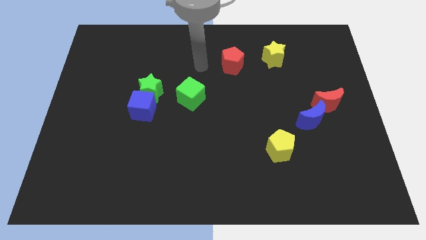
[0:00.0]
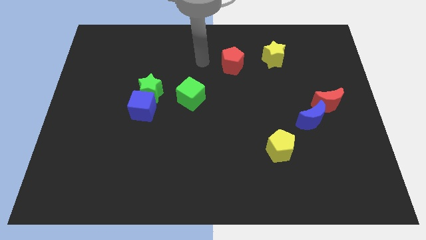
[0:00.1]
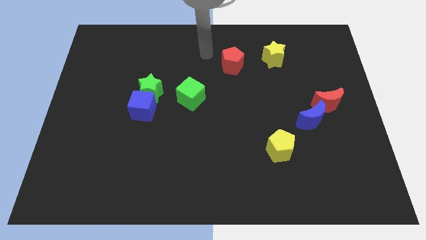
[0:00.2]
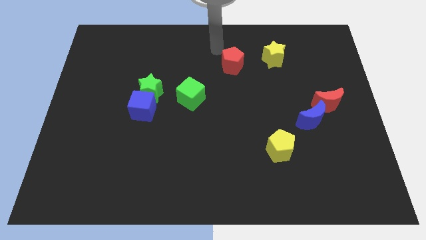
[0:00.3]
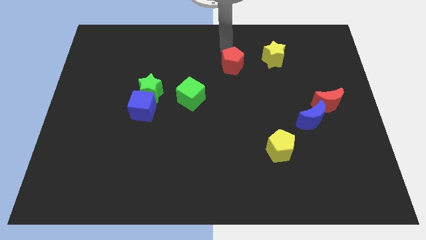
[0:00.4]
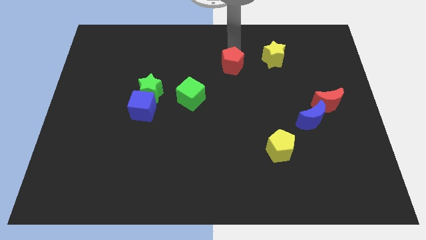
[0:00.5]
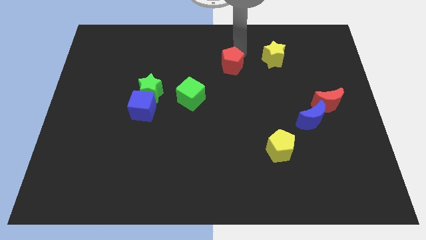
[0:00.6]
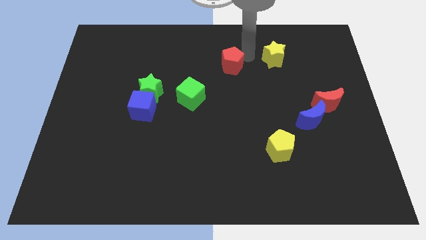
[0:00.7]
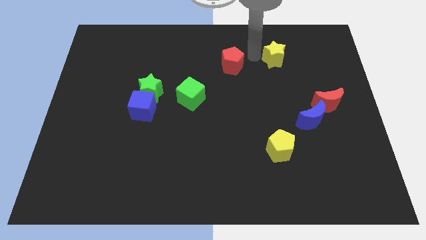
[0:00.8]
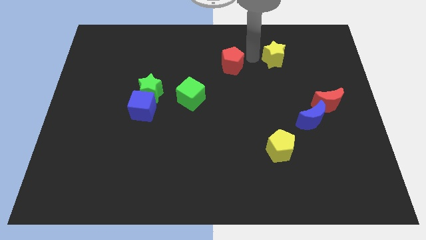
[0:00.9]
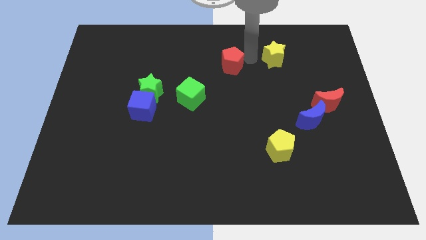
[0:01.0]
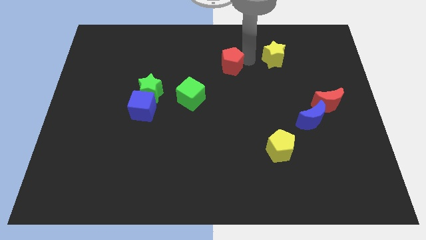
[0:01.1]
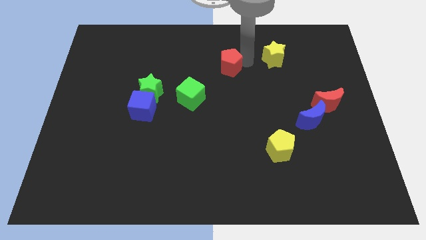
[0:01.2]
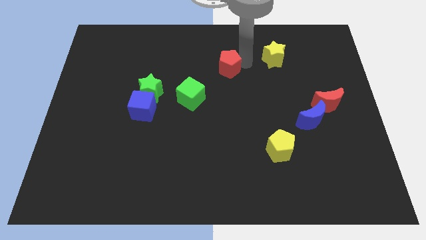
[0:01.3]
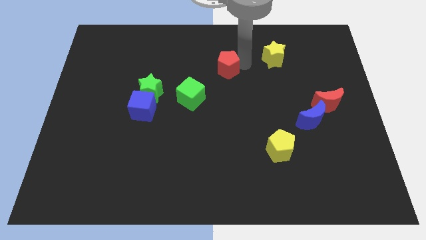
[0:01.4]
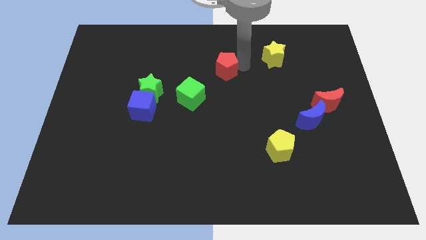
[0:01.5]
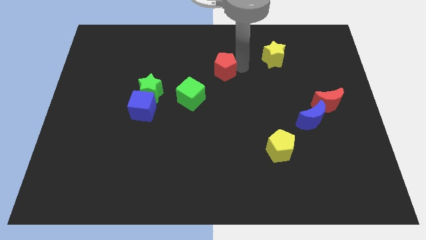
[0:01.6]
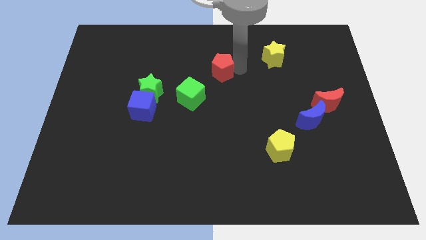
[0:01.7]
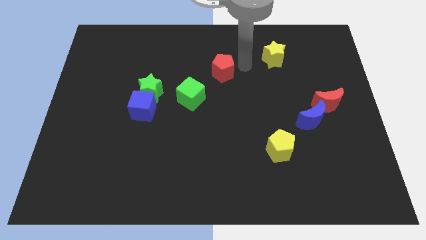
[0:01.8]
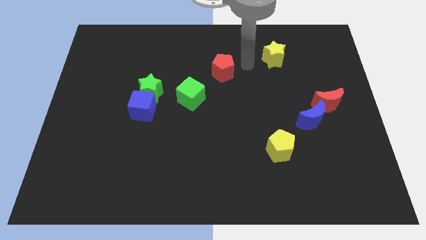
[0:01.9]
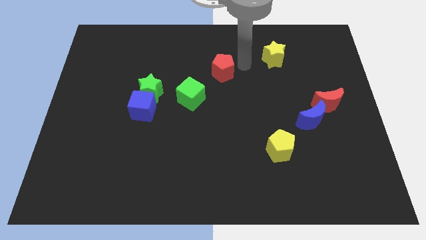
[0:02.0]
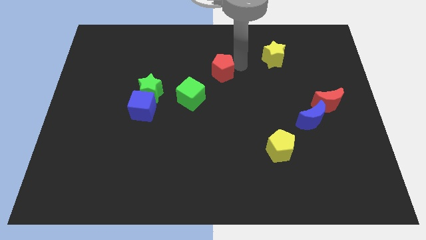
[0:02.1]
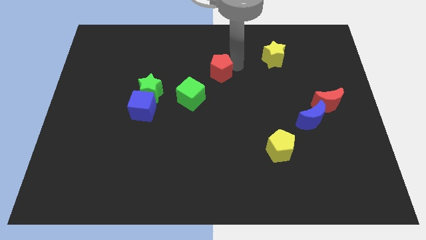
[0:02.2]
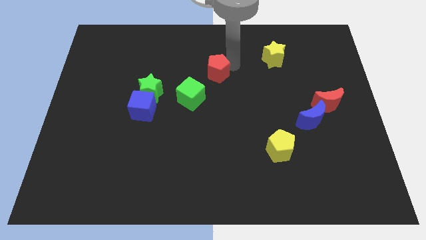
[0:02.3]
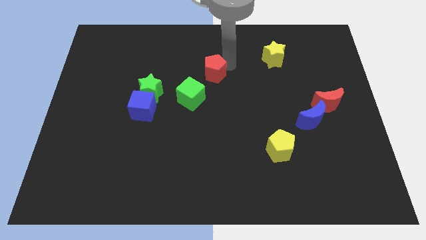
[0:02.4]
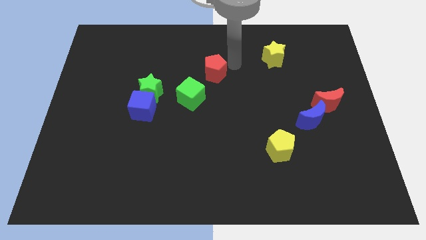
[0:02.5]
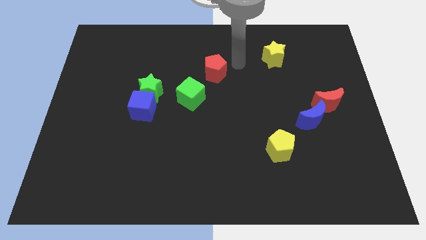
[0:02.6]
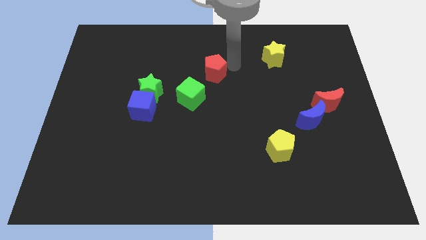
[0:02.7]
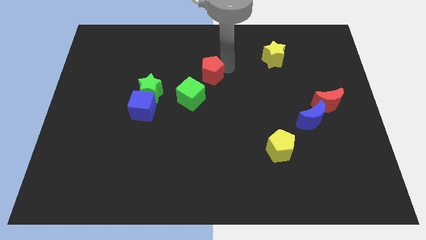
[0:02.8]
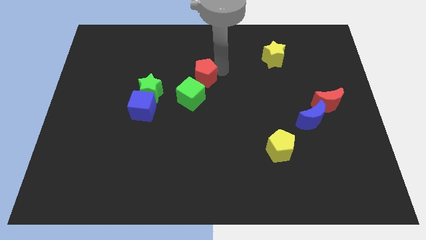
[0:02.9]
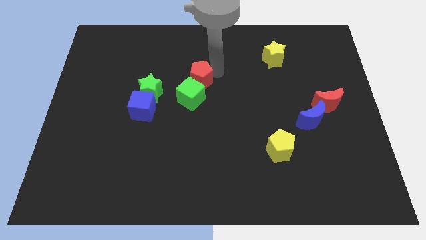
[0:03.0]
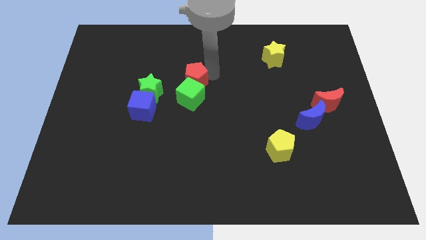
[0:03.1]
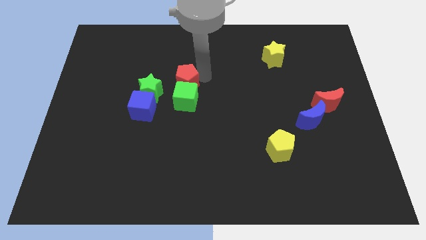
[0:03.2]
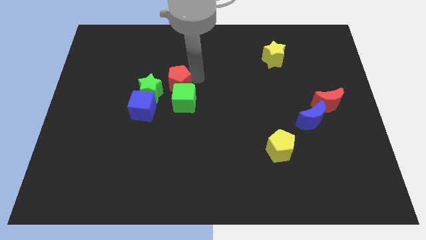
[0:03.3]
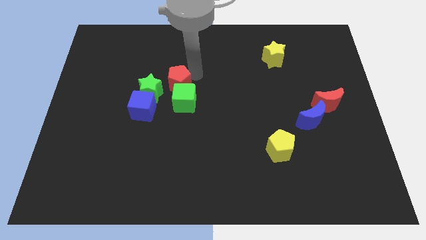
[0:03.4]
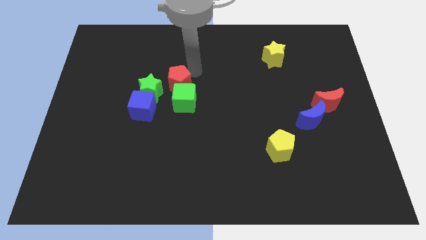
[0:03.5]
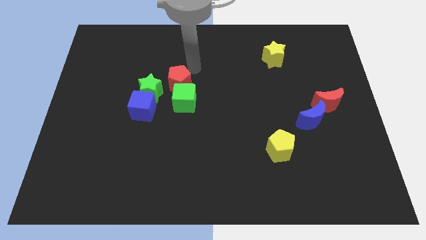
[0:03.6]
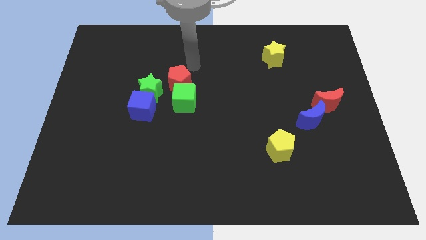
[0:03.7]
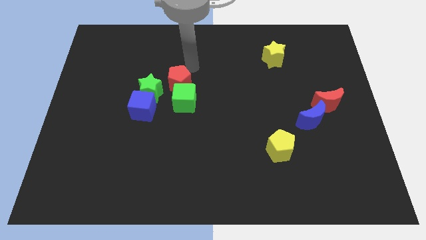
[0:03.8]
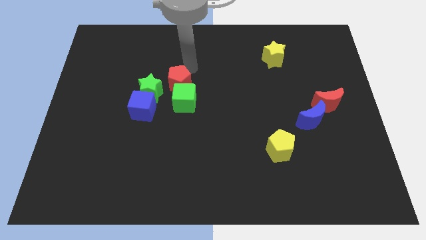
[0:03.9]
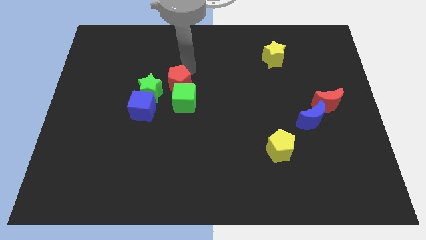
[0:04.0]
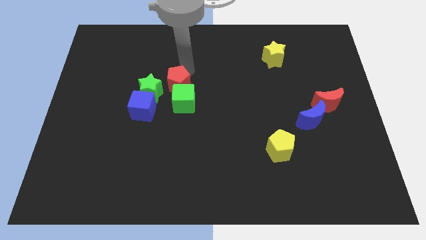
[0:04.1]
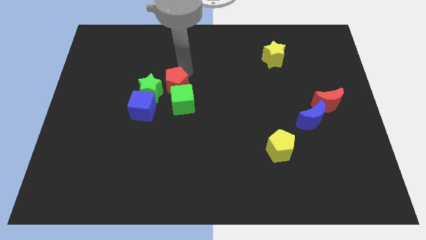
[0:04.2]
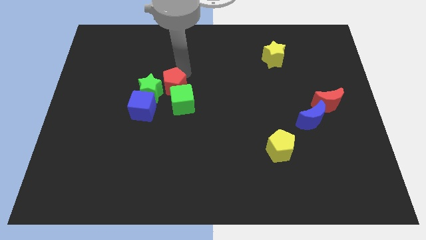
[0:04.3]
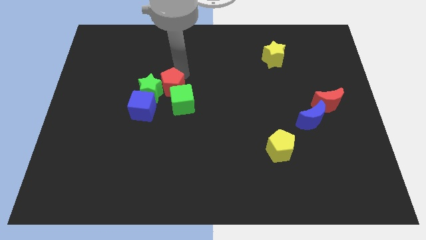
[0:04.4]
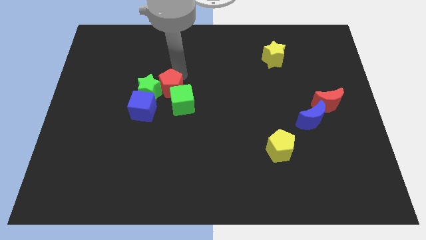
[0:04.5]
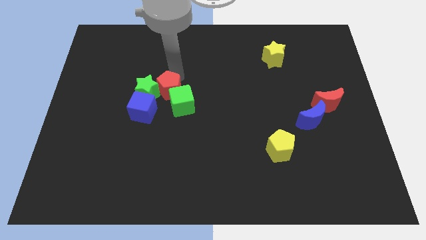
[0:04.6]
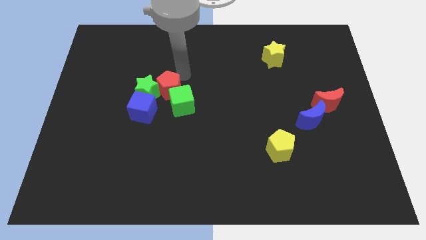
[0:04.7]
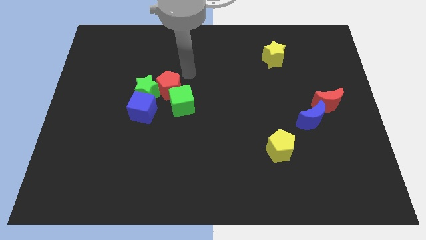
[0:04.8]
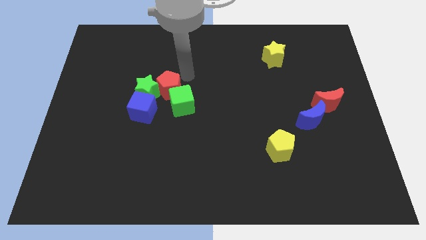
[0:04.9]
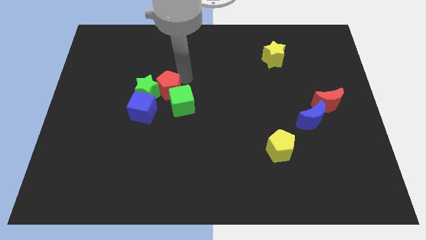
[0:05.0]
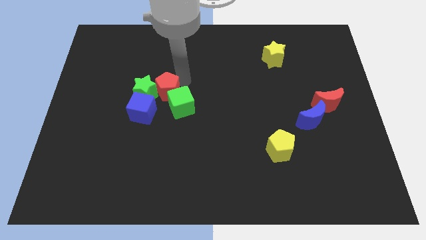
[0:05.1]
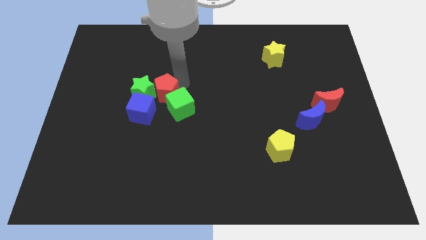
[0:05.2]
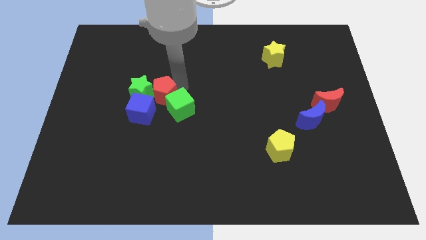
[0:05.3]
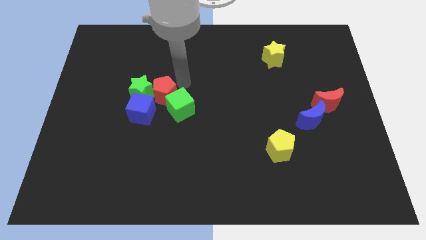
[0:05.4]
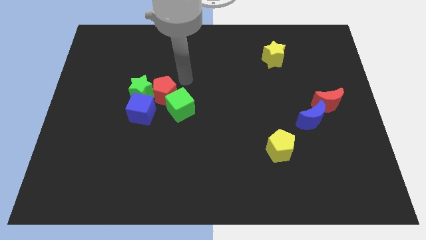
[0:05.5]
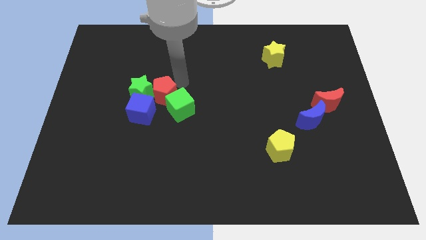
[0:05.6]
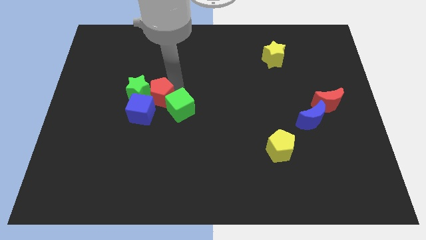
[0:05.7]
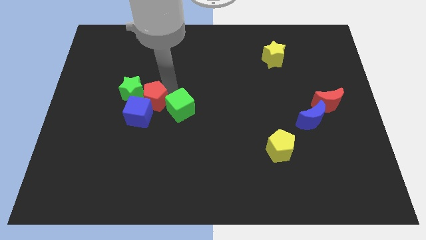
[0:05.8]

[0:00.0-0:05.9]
put the red pentagon close to the blue cube

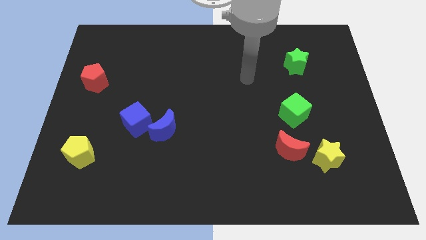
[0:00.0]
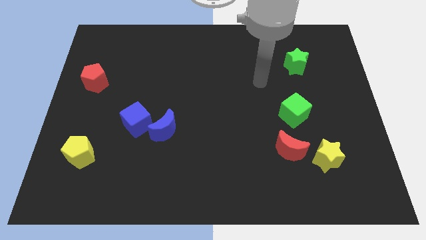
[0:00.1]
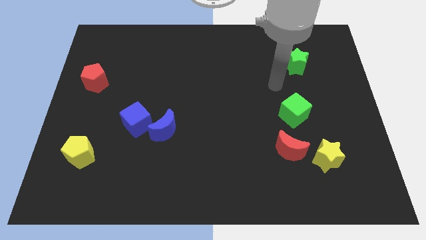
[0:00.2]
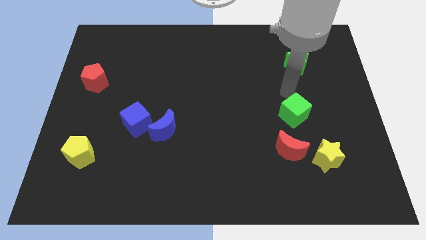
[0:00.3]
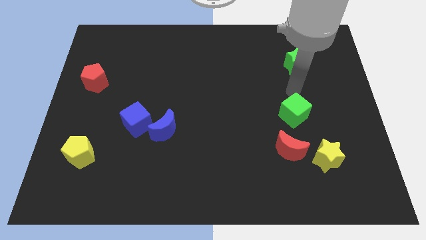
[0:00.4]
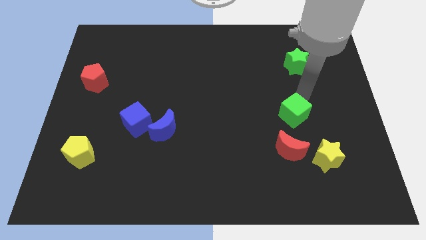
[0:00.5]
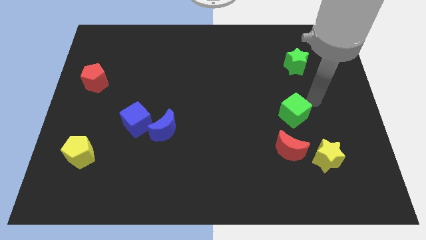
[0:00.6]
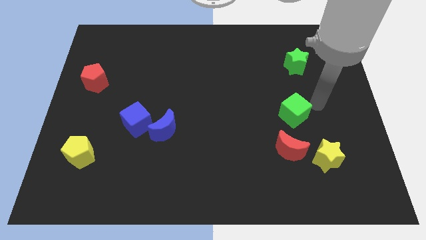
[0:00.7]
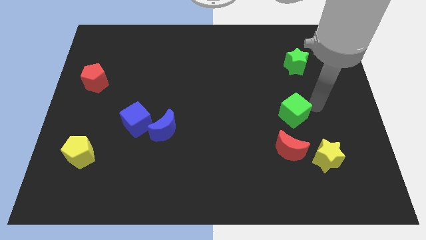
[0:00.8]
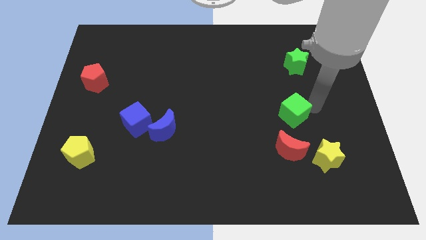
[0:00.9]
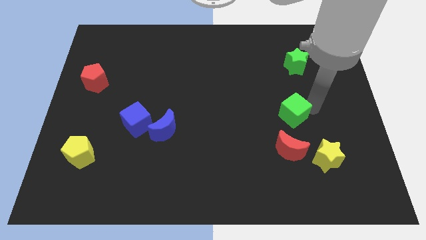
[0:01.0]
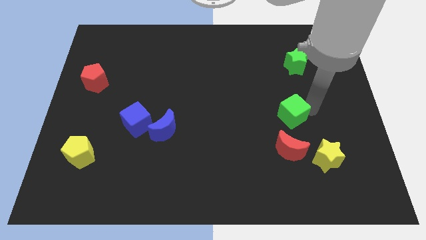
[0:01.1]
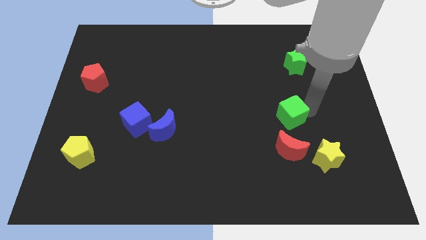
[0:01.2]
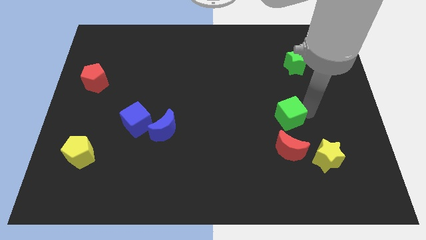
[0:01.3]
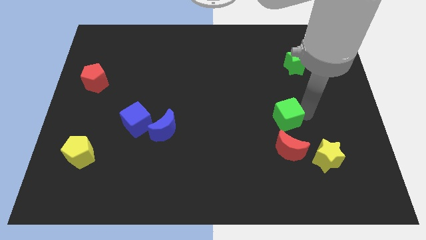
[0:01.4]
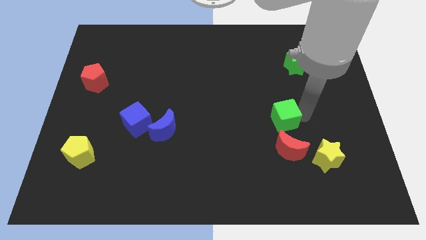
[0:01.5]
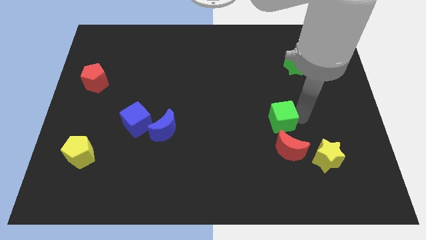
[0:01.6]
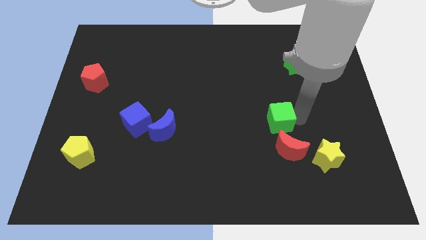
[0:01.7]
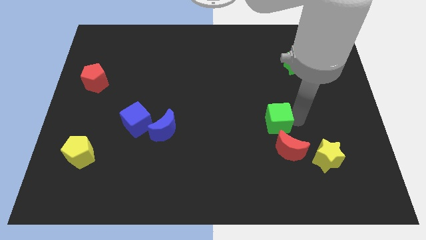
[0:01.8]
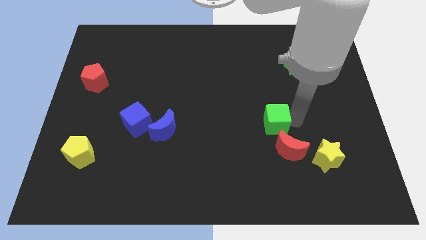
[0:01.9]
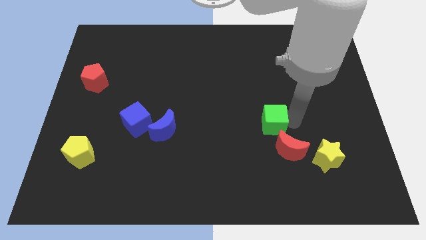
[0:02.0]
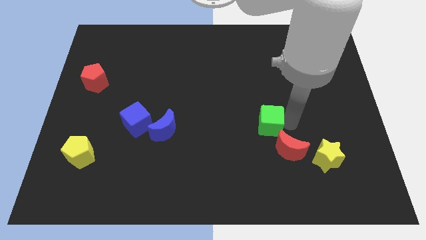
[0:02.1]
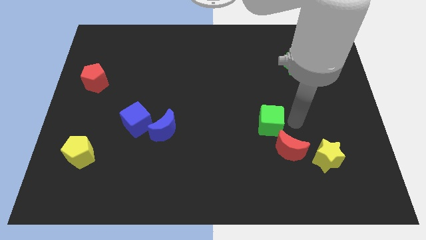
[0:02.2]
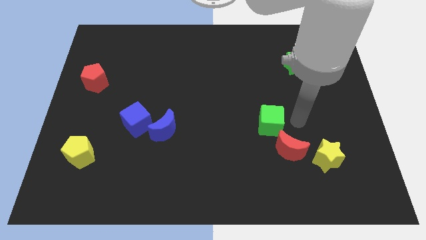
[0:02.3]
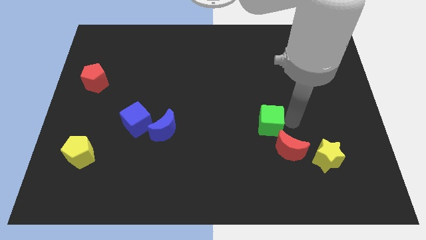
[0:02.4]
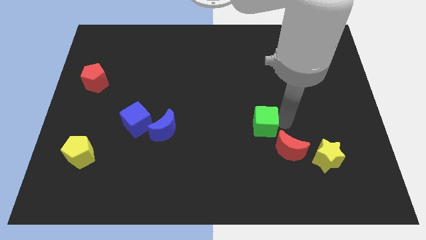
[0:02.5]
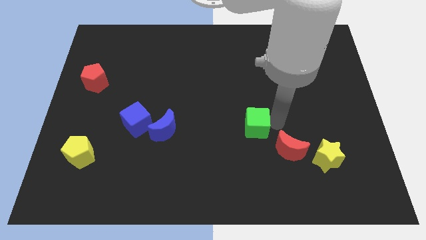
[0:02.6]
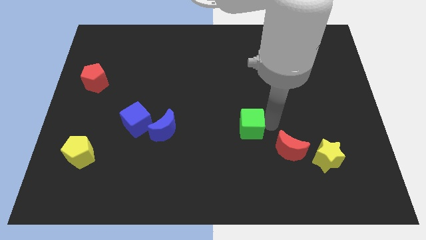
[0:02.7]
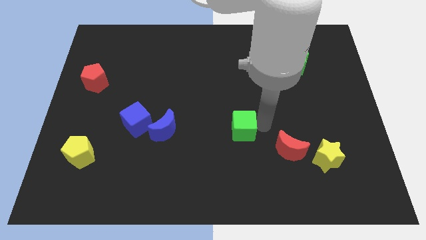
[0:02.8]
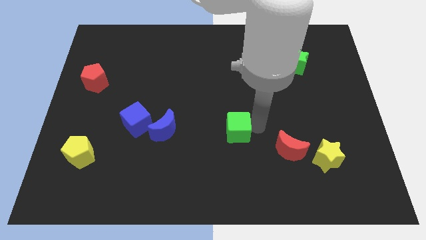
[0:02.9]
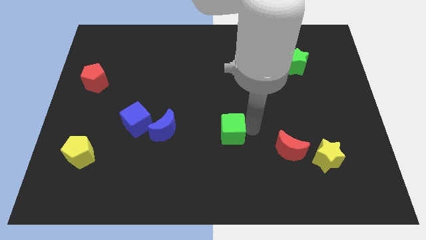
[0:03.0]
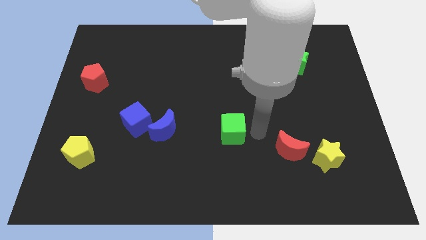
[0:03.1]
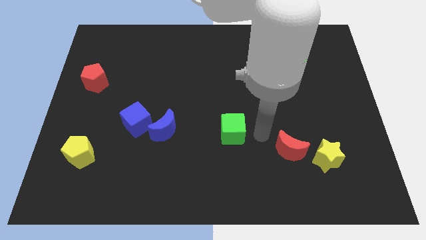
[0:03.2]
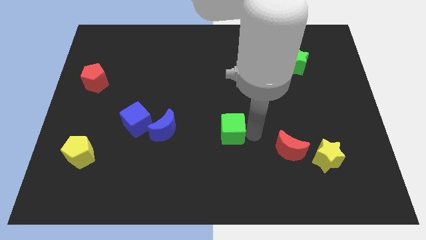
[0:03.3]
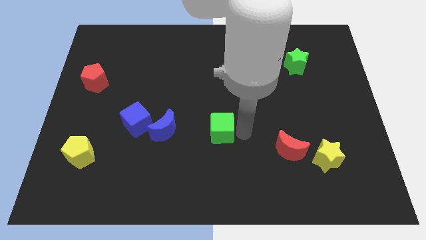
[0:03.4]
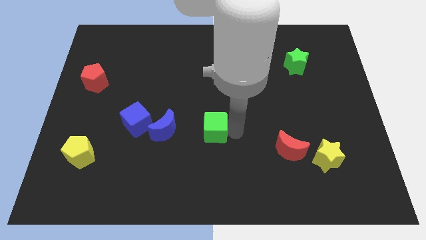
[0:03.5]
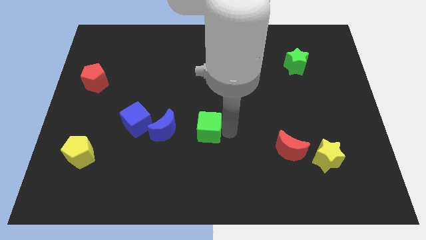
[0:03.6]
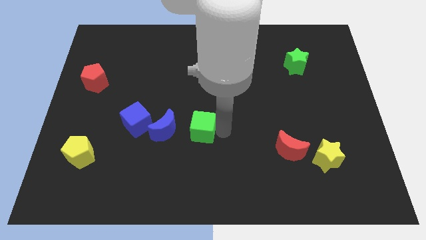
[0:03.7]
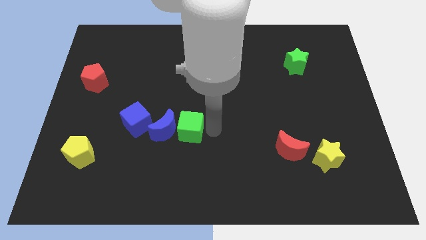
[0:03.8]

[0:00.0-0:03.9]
move the green cube close to the blue moon
